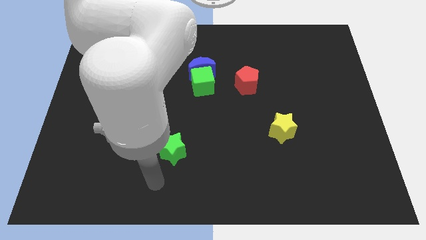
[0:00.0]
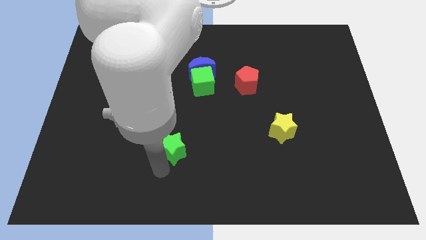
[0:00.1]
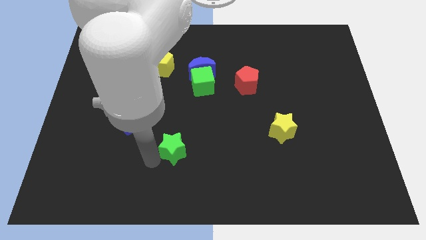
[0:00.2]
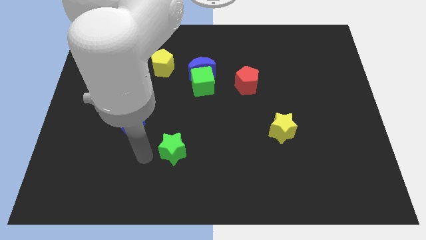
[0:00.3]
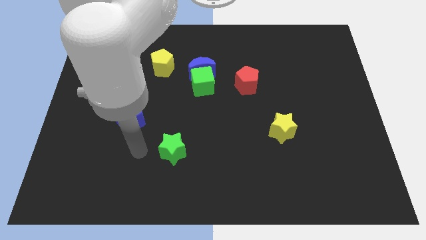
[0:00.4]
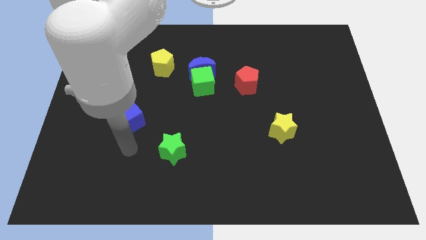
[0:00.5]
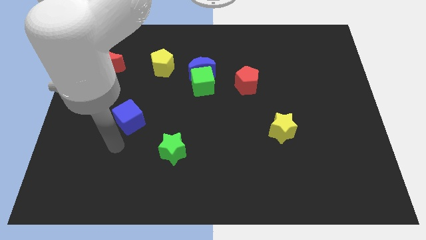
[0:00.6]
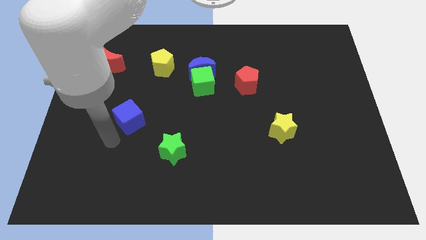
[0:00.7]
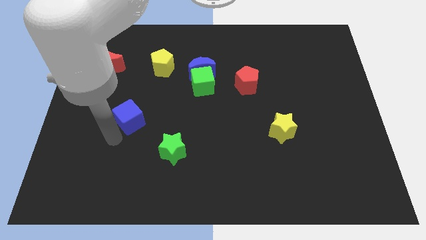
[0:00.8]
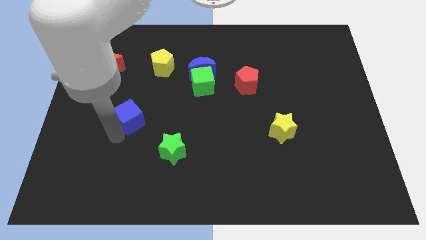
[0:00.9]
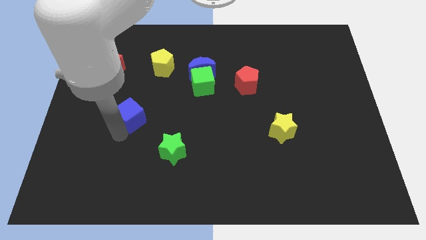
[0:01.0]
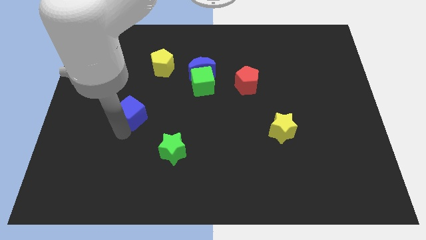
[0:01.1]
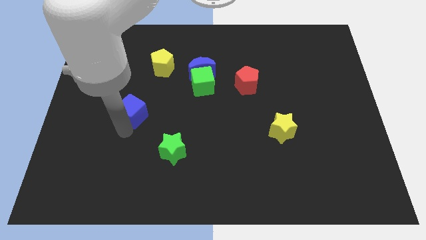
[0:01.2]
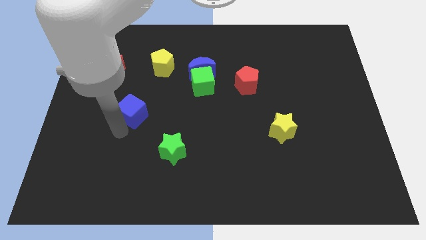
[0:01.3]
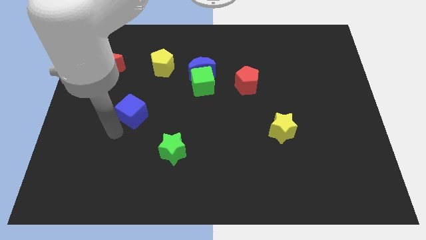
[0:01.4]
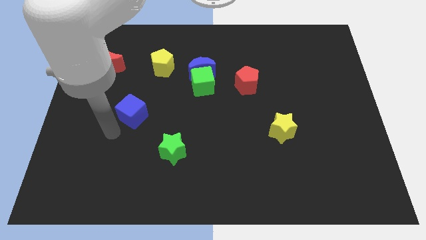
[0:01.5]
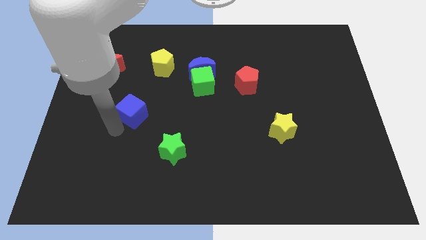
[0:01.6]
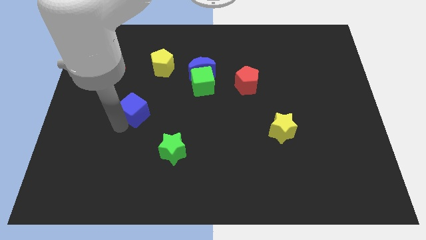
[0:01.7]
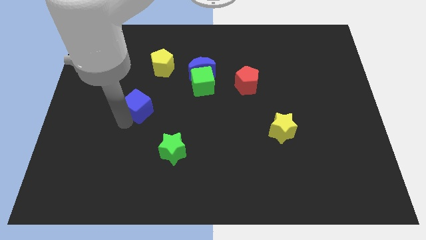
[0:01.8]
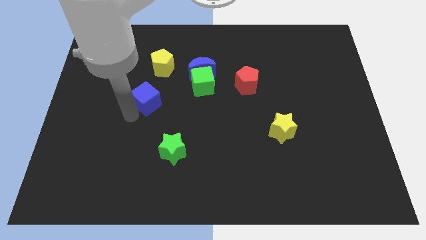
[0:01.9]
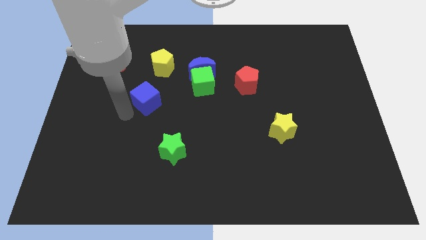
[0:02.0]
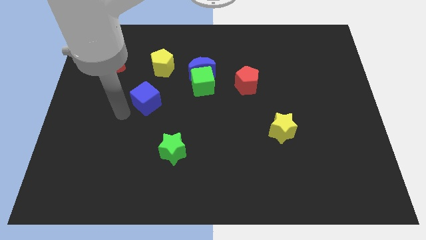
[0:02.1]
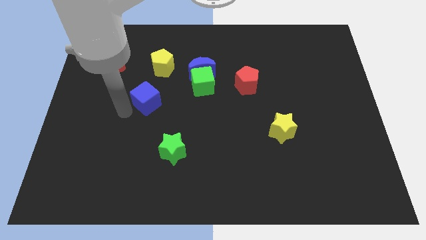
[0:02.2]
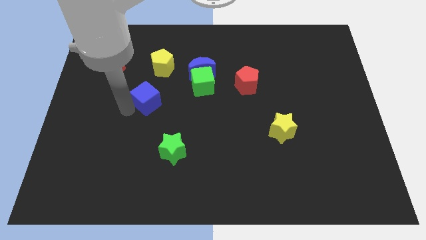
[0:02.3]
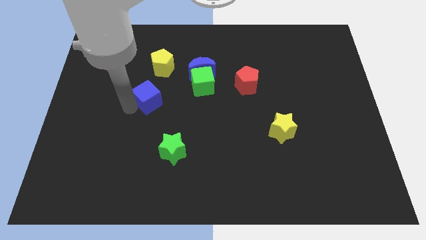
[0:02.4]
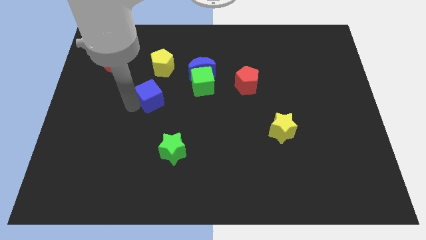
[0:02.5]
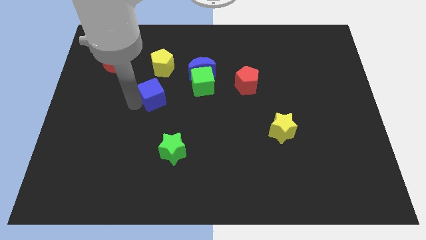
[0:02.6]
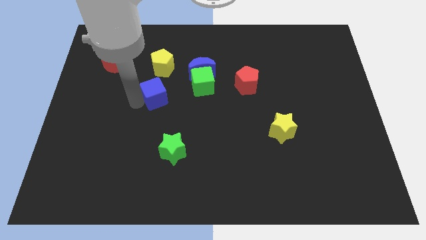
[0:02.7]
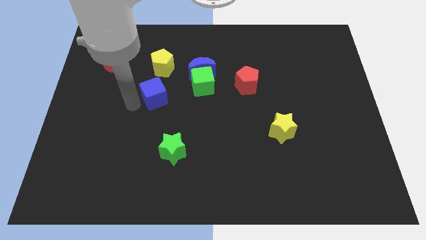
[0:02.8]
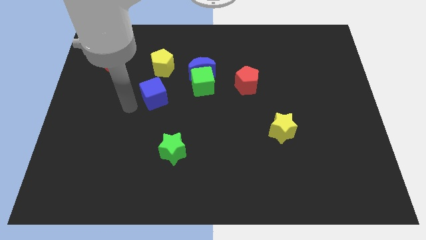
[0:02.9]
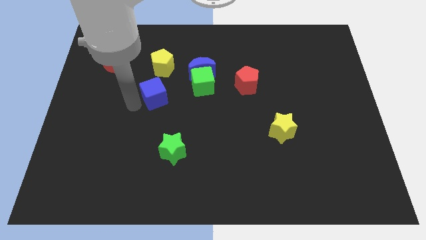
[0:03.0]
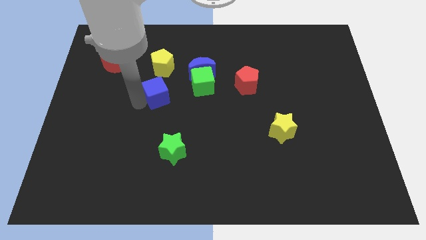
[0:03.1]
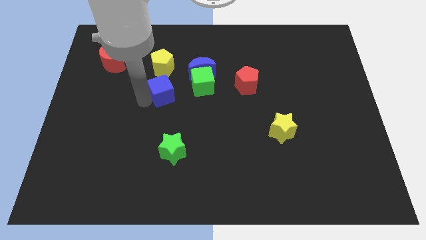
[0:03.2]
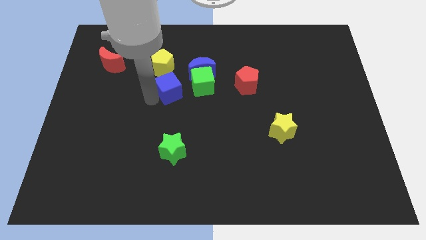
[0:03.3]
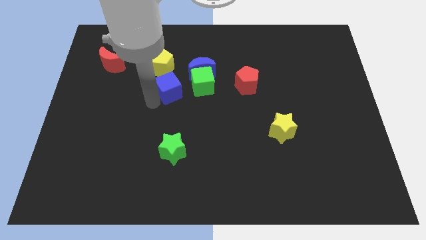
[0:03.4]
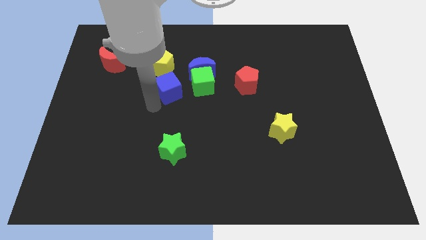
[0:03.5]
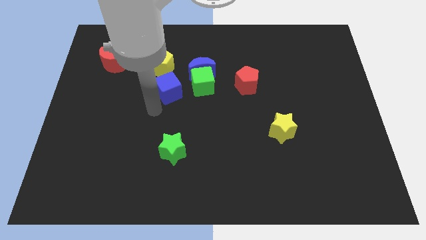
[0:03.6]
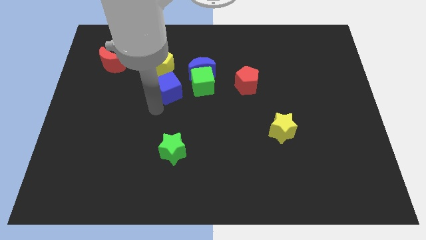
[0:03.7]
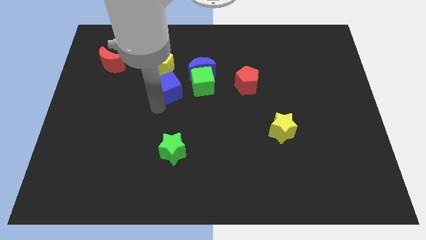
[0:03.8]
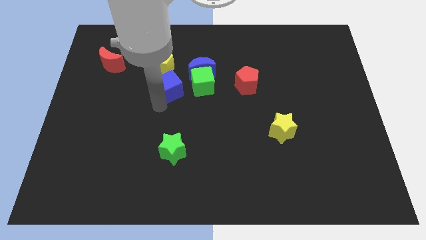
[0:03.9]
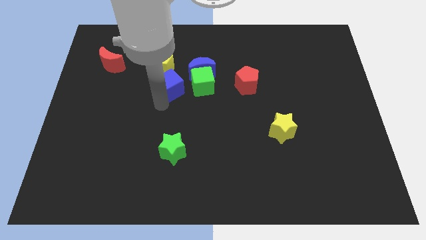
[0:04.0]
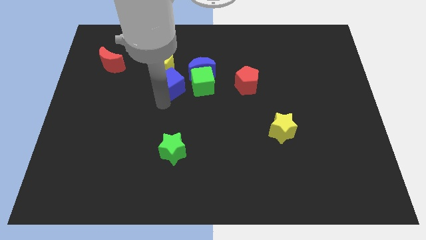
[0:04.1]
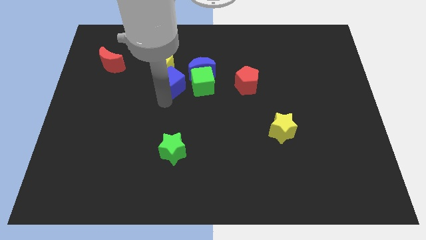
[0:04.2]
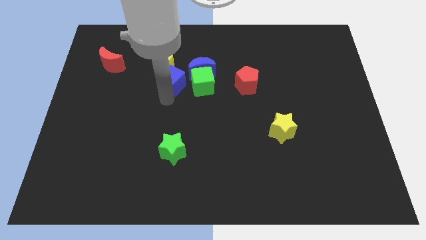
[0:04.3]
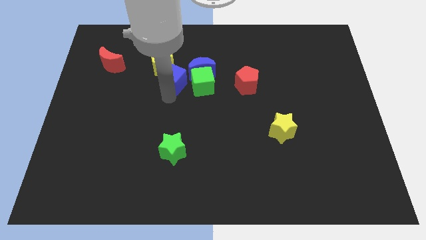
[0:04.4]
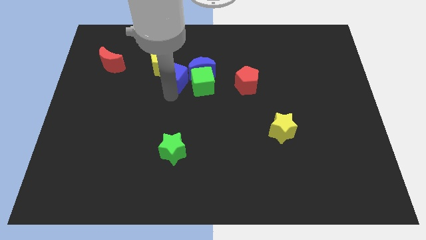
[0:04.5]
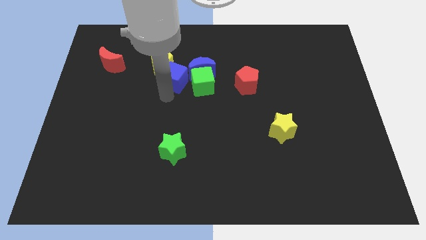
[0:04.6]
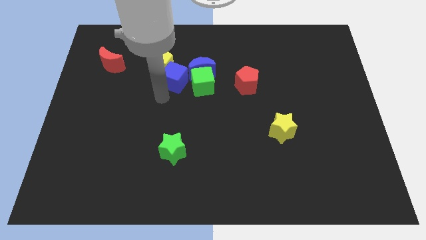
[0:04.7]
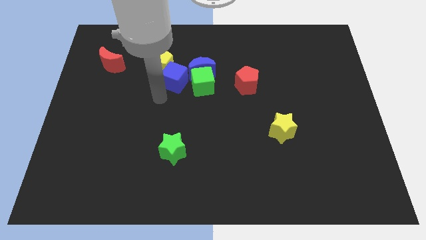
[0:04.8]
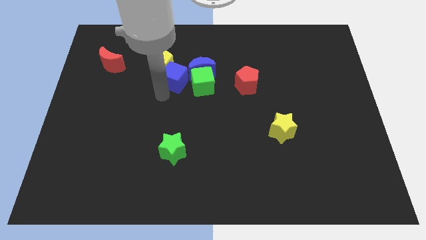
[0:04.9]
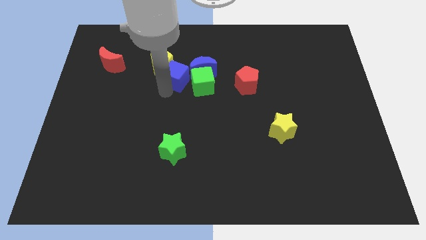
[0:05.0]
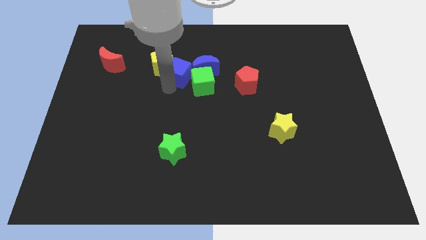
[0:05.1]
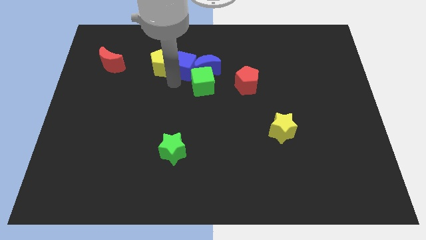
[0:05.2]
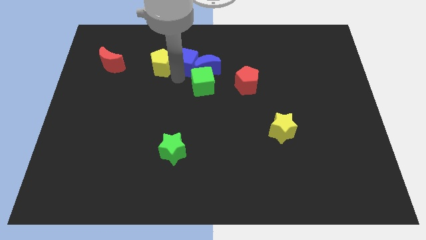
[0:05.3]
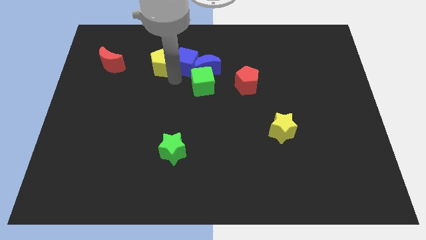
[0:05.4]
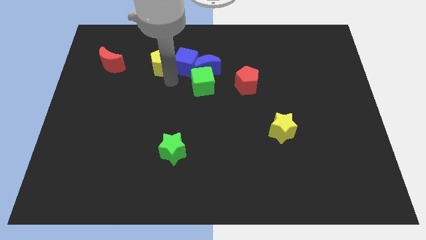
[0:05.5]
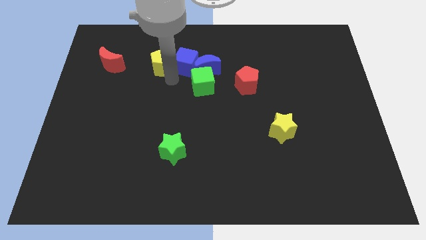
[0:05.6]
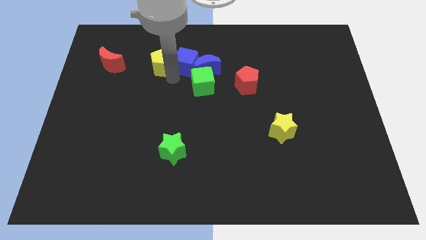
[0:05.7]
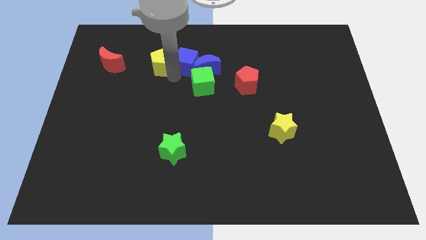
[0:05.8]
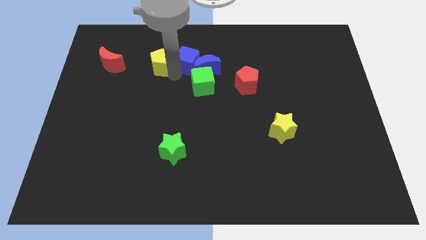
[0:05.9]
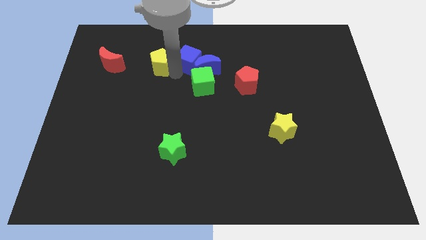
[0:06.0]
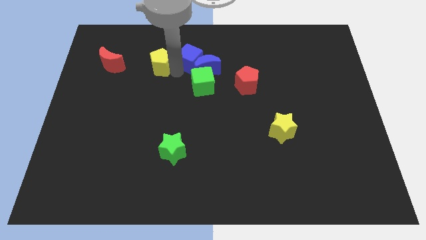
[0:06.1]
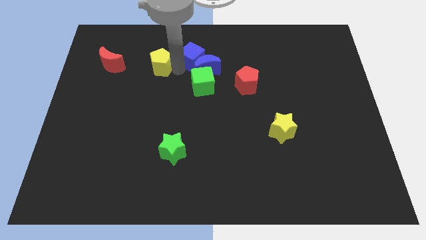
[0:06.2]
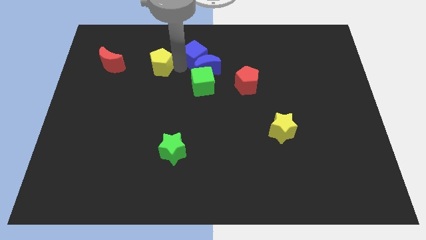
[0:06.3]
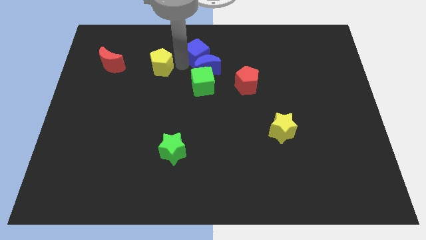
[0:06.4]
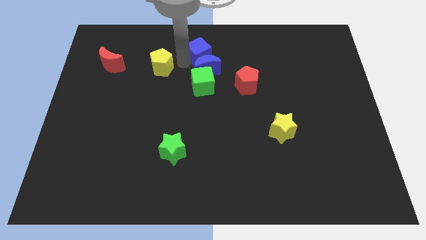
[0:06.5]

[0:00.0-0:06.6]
move the blue cube to the towards your base
